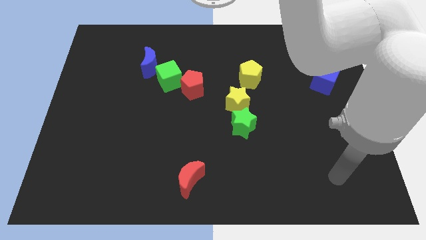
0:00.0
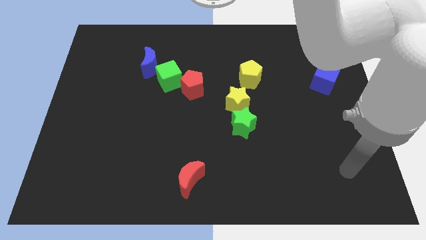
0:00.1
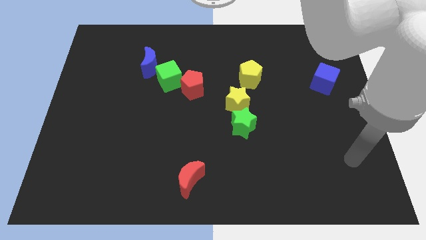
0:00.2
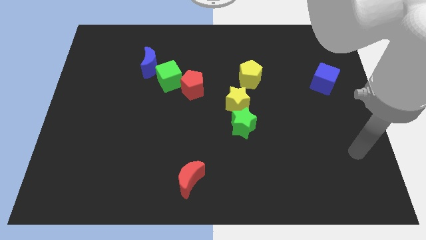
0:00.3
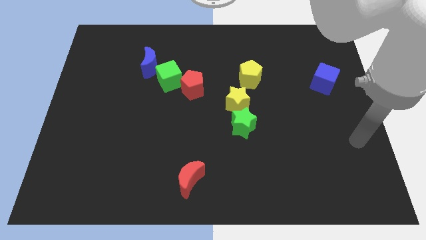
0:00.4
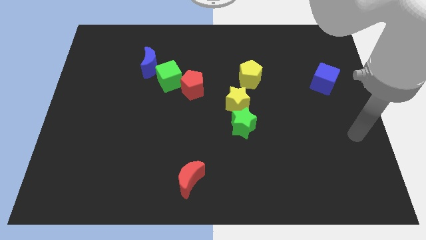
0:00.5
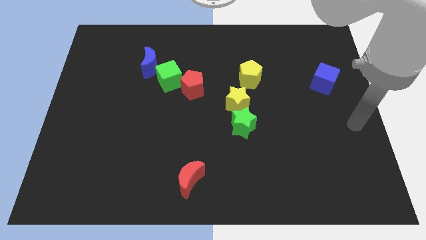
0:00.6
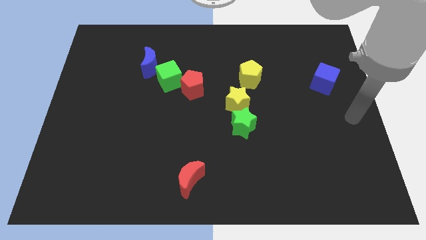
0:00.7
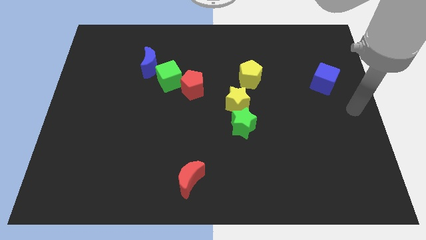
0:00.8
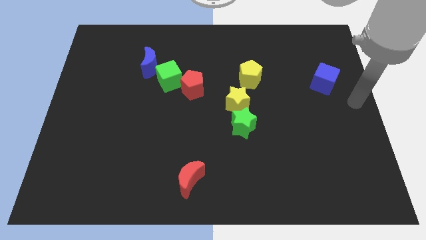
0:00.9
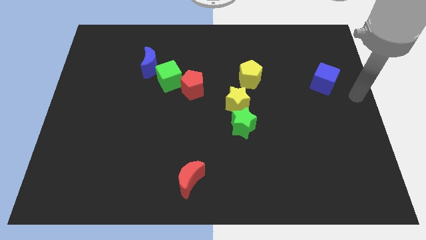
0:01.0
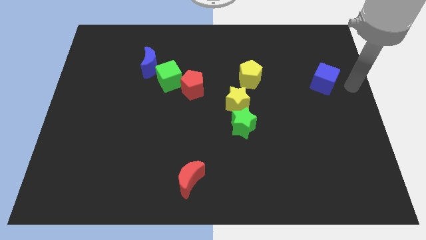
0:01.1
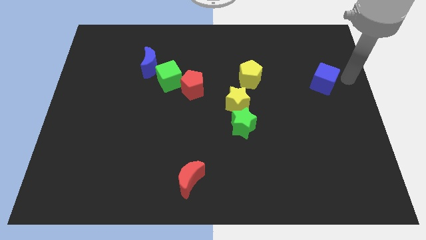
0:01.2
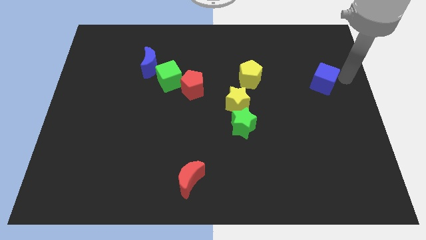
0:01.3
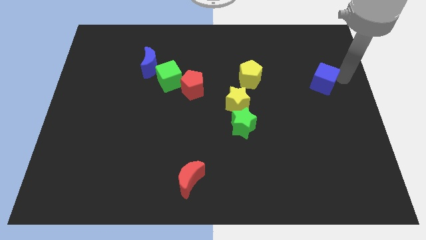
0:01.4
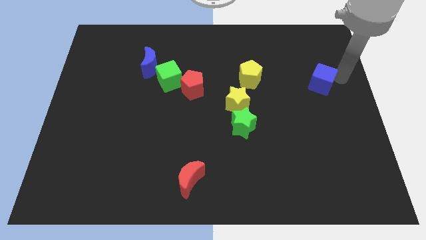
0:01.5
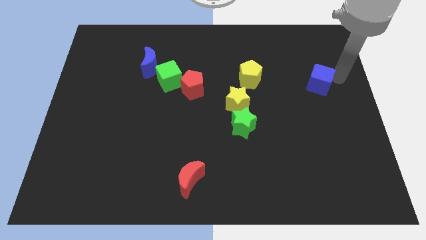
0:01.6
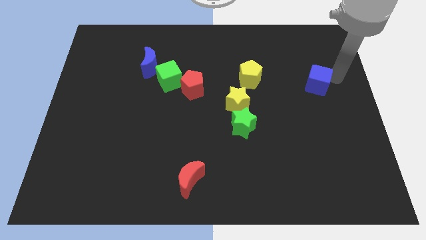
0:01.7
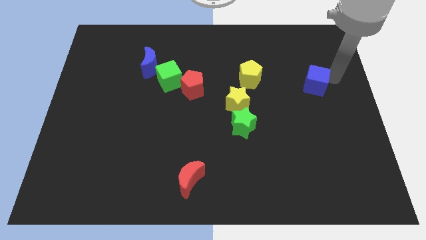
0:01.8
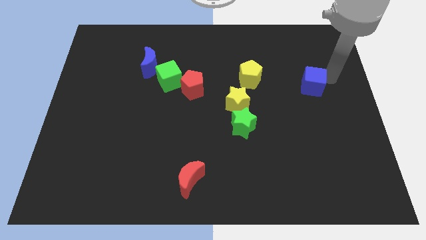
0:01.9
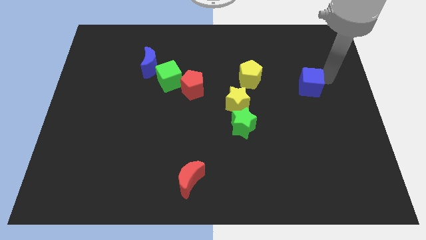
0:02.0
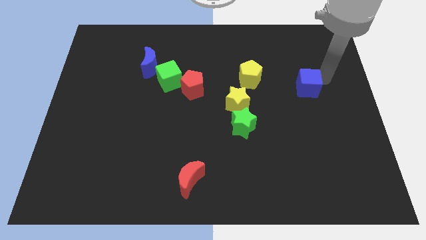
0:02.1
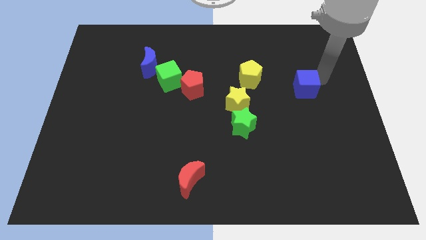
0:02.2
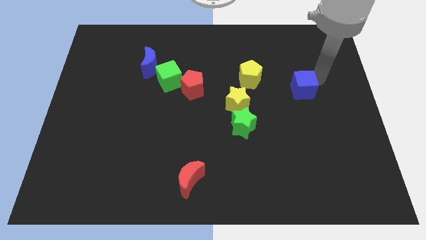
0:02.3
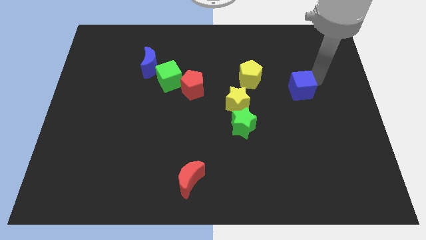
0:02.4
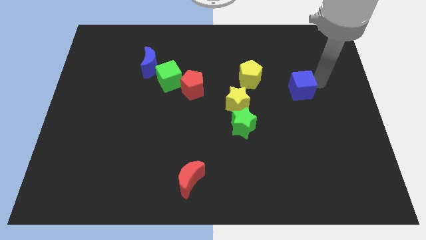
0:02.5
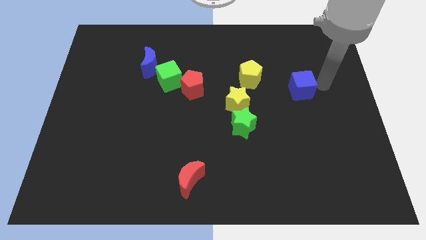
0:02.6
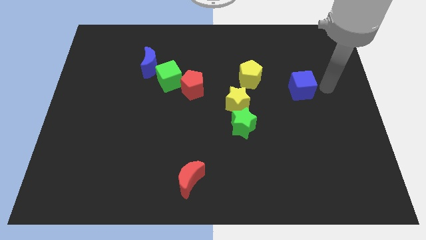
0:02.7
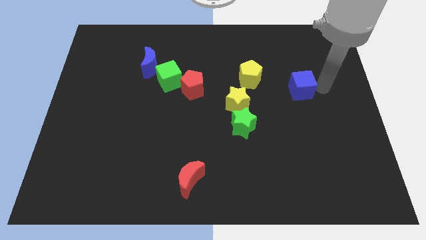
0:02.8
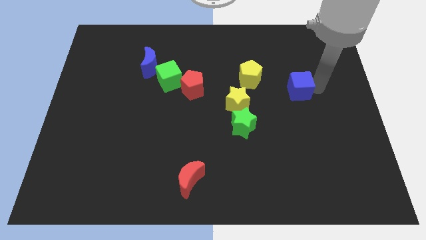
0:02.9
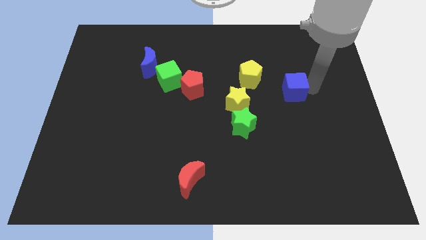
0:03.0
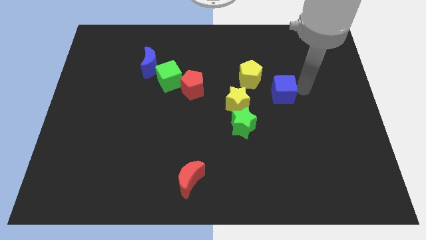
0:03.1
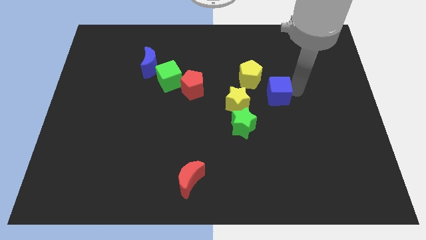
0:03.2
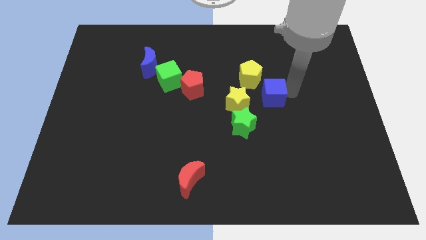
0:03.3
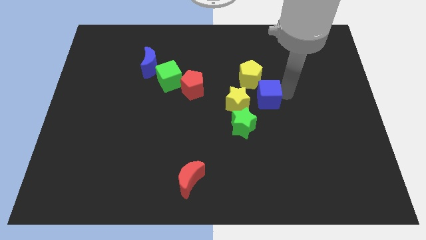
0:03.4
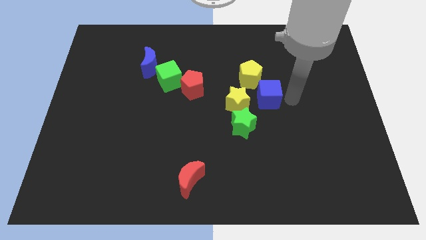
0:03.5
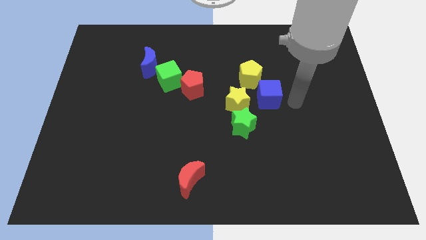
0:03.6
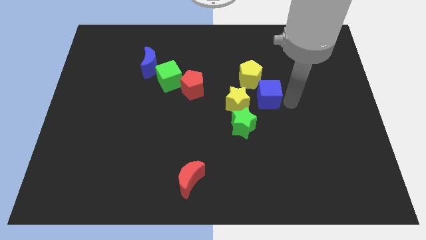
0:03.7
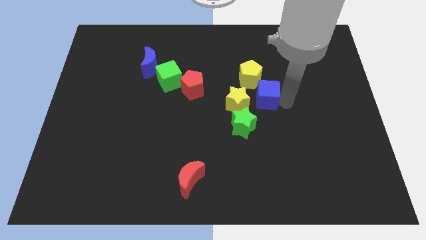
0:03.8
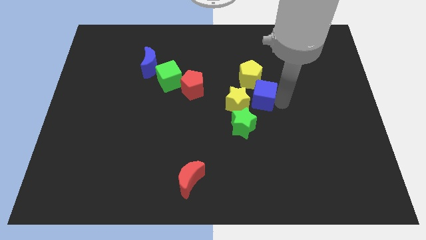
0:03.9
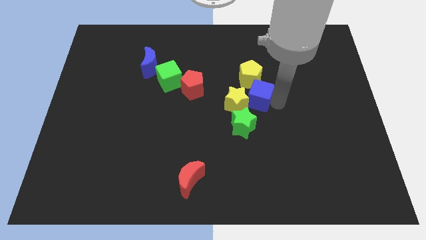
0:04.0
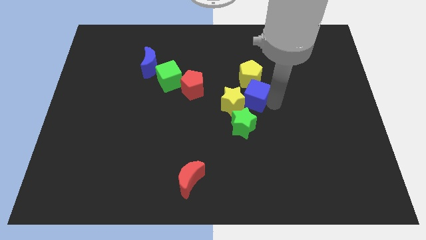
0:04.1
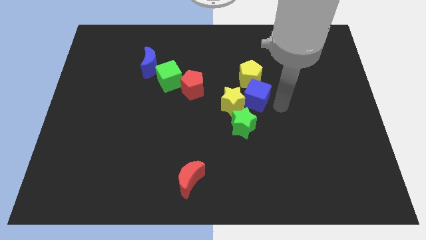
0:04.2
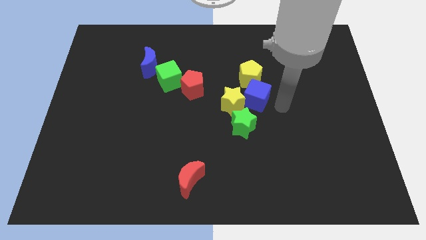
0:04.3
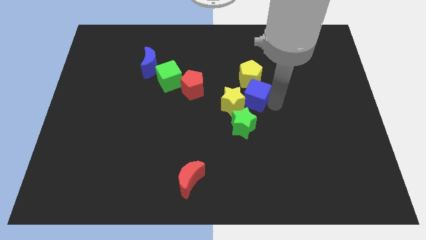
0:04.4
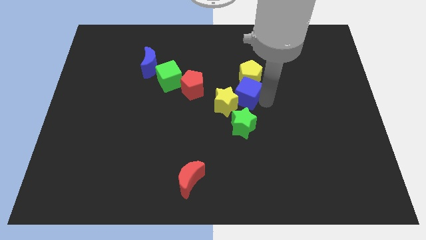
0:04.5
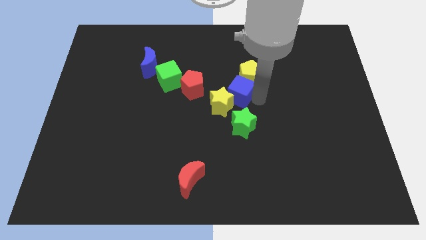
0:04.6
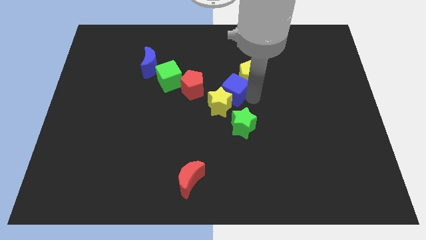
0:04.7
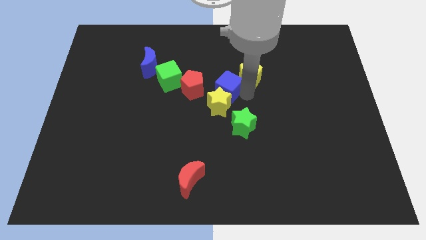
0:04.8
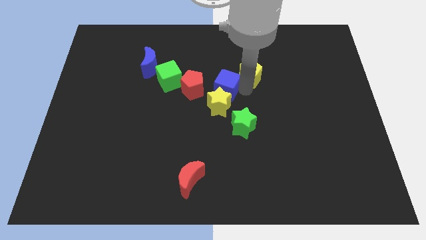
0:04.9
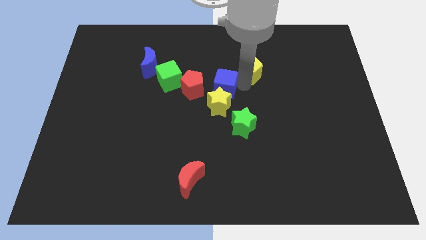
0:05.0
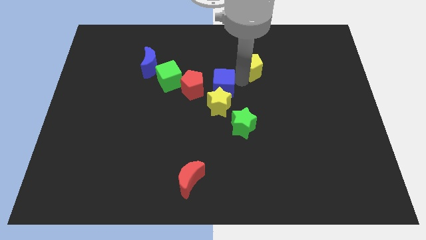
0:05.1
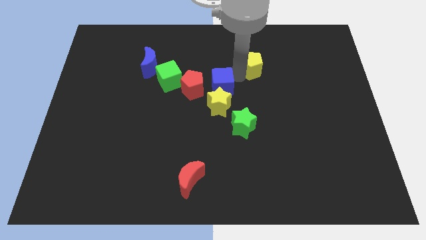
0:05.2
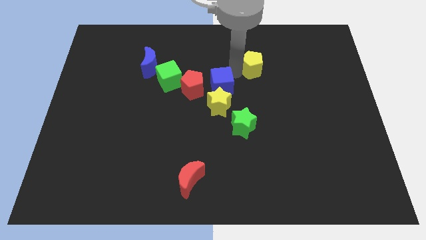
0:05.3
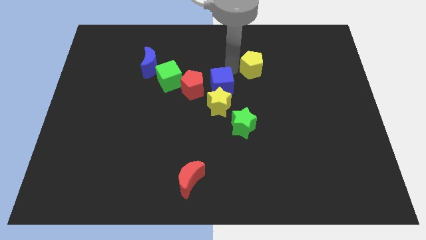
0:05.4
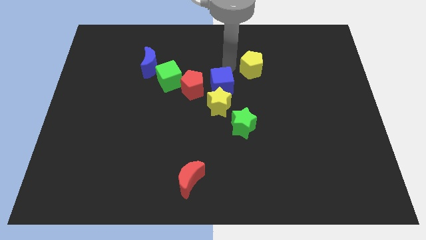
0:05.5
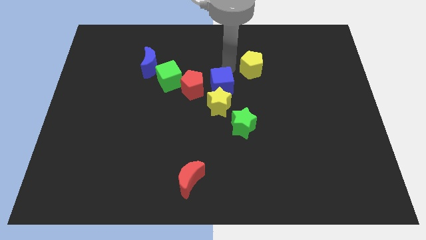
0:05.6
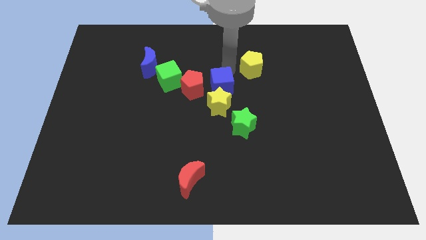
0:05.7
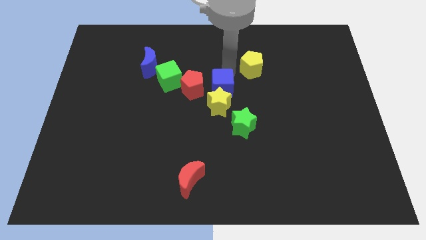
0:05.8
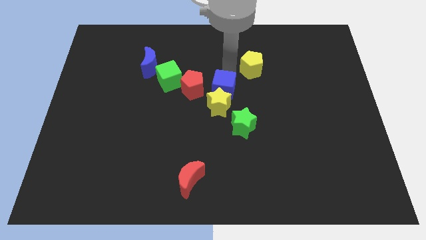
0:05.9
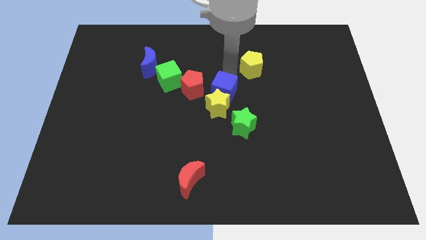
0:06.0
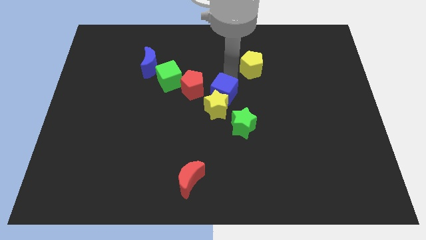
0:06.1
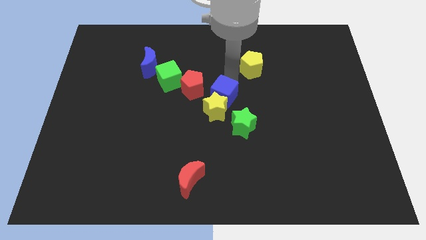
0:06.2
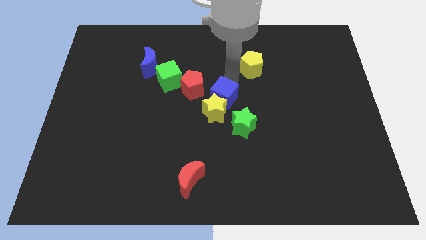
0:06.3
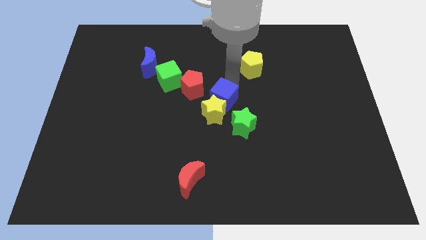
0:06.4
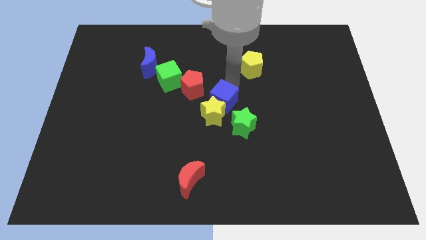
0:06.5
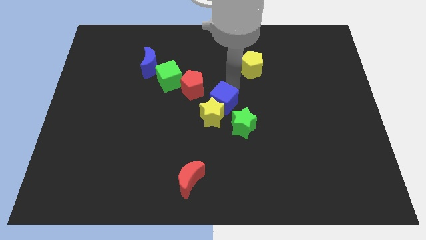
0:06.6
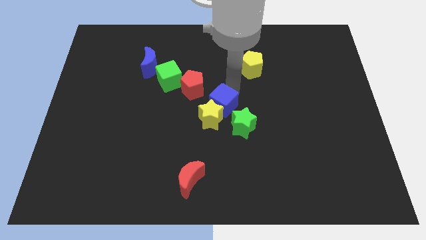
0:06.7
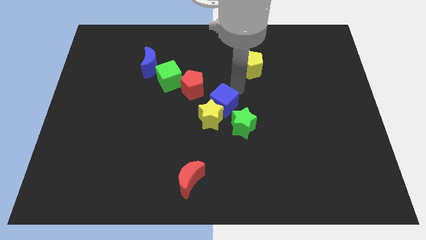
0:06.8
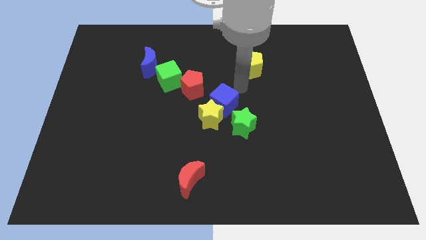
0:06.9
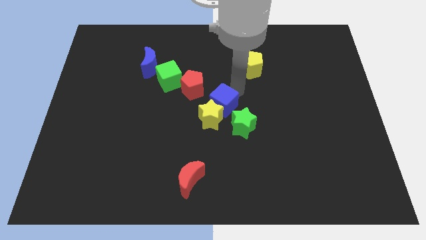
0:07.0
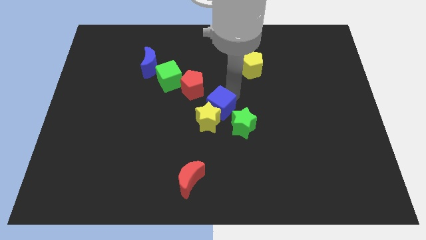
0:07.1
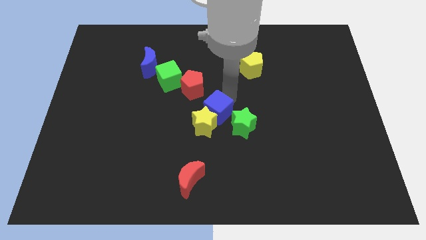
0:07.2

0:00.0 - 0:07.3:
move the blue cube to the left of the green star
